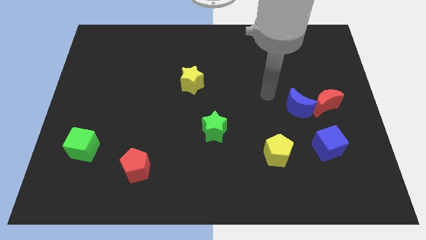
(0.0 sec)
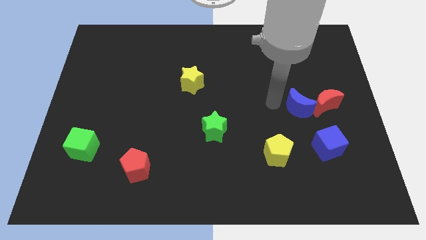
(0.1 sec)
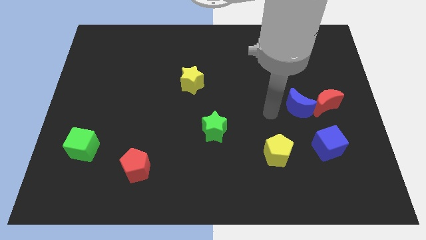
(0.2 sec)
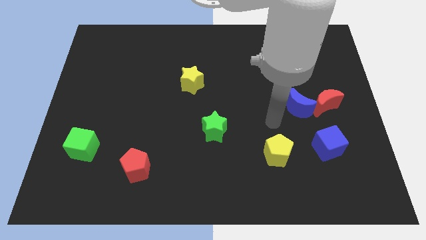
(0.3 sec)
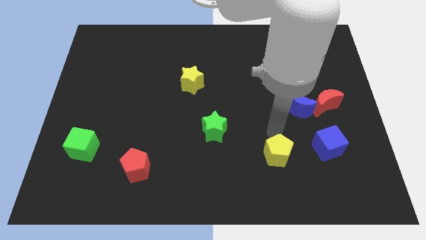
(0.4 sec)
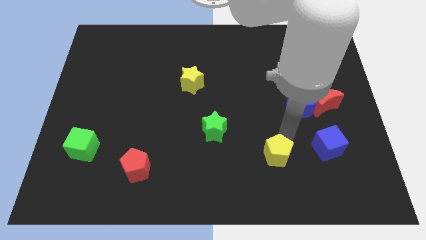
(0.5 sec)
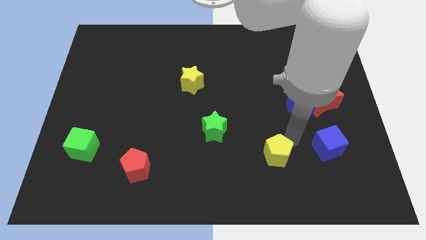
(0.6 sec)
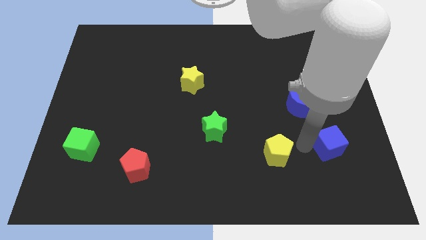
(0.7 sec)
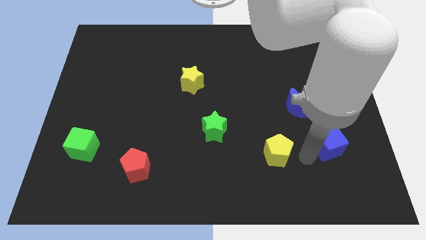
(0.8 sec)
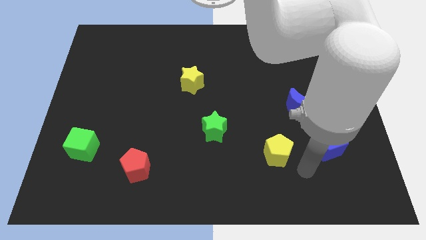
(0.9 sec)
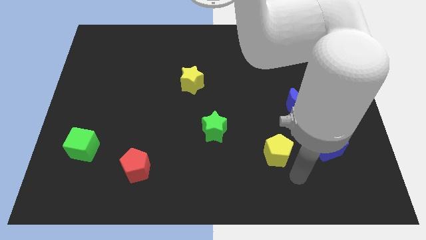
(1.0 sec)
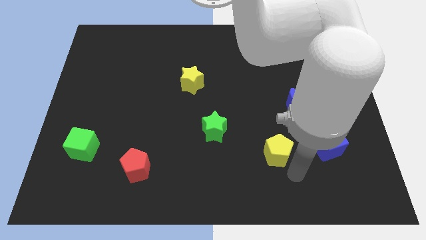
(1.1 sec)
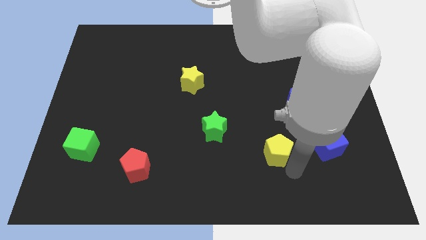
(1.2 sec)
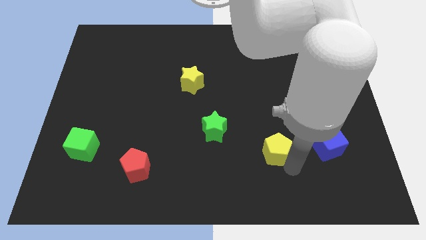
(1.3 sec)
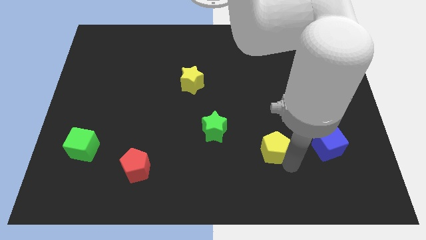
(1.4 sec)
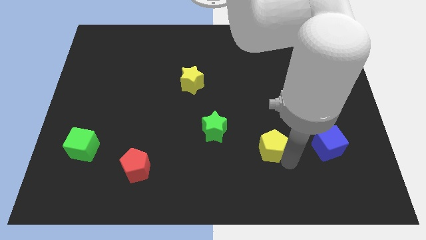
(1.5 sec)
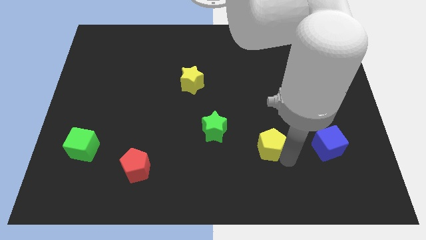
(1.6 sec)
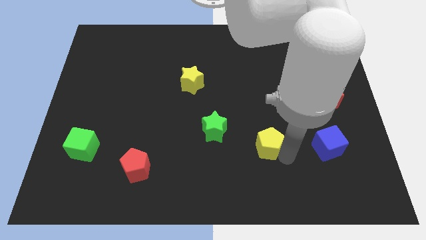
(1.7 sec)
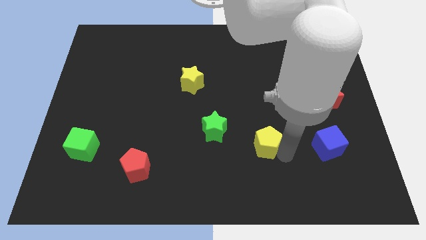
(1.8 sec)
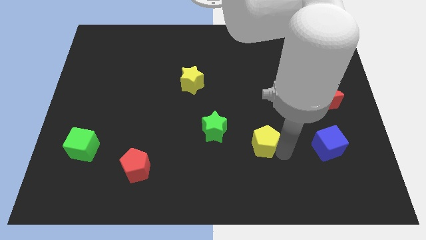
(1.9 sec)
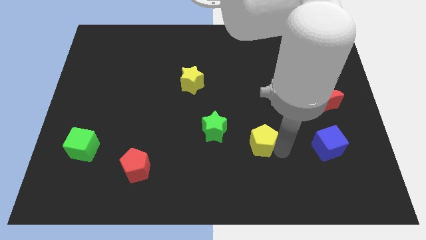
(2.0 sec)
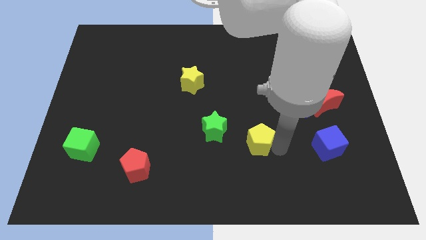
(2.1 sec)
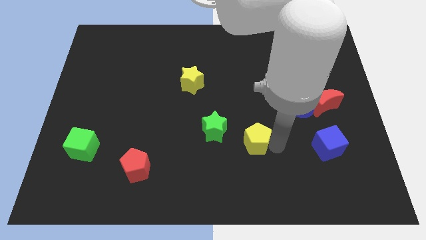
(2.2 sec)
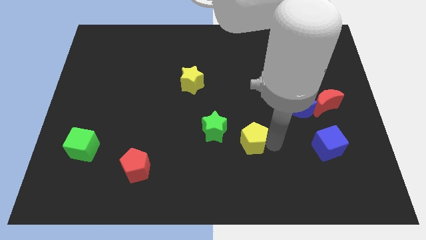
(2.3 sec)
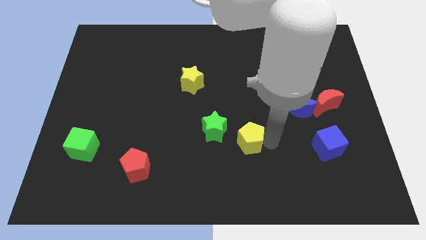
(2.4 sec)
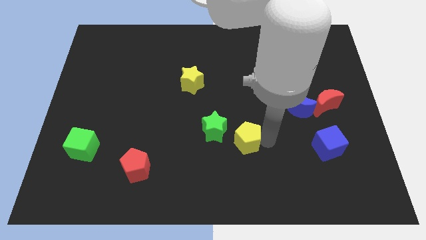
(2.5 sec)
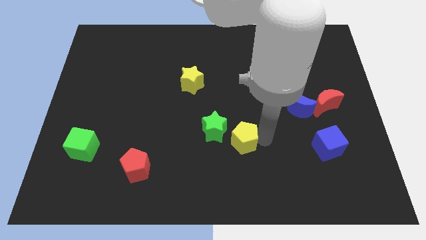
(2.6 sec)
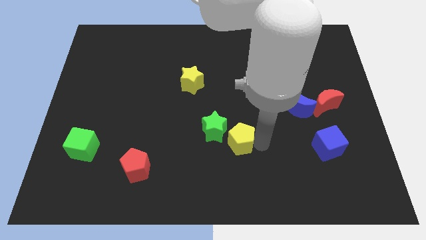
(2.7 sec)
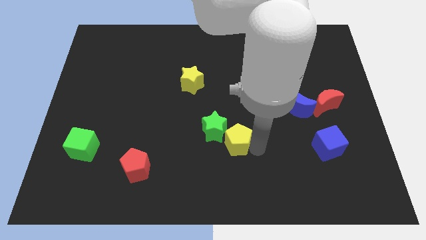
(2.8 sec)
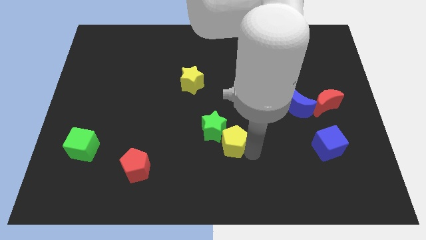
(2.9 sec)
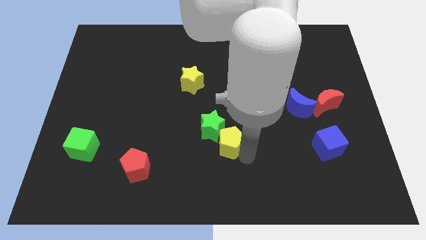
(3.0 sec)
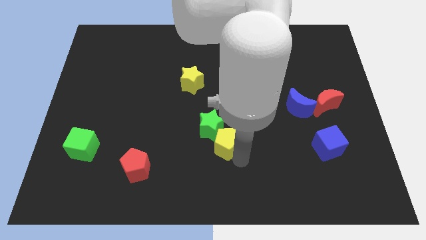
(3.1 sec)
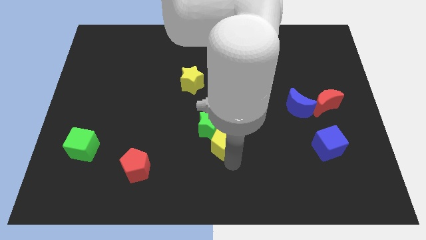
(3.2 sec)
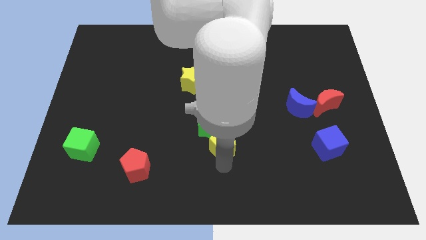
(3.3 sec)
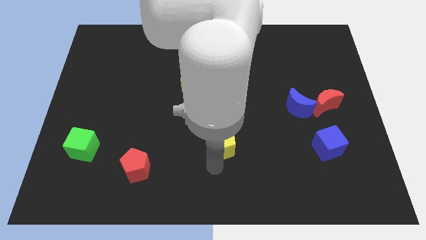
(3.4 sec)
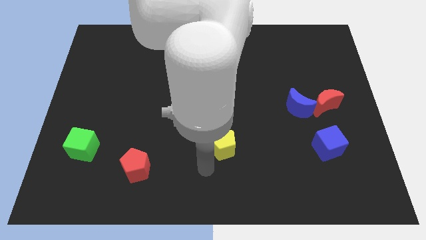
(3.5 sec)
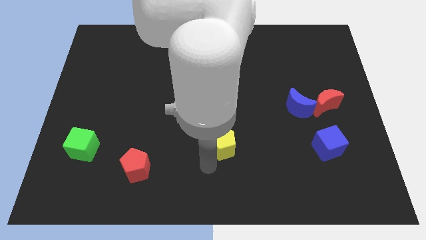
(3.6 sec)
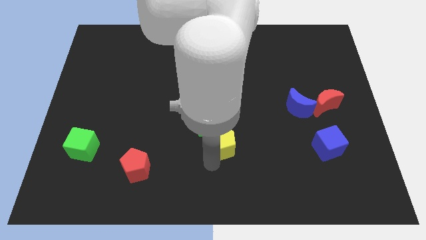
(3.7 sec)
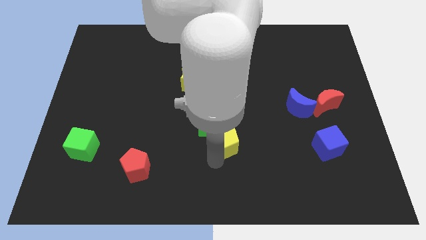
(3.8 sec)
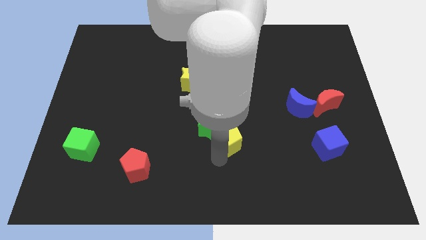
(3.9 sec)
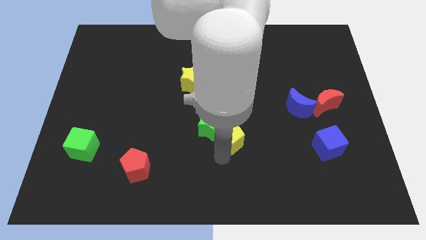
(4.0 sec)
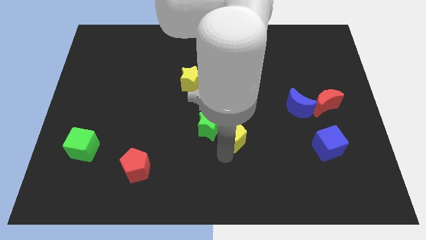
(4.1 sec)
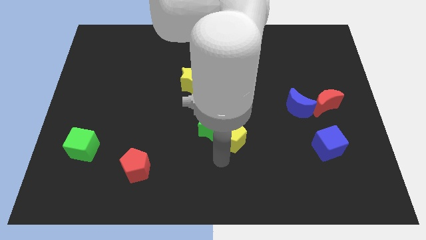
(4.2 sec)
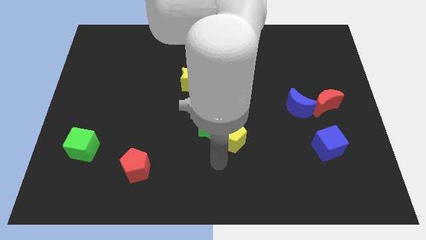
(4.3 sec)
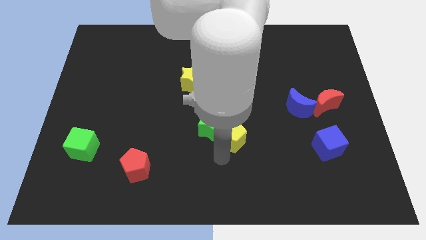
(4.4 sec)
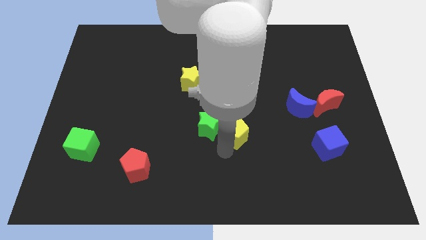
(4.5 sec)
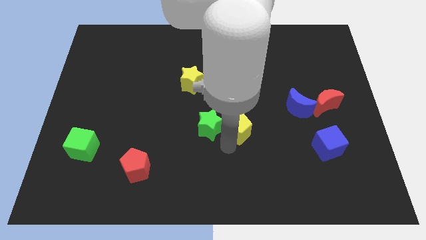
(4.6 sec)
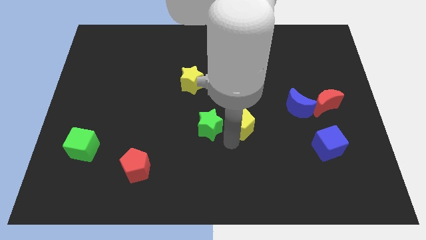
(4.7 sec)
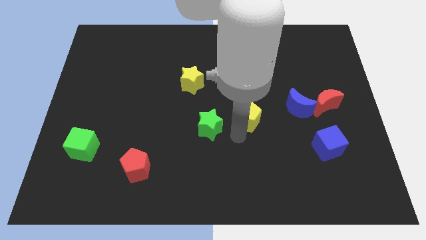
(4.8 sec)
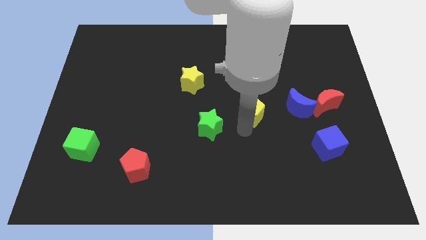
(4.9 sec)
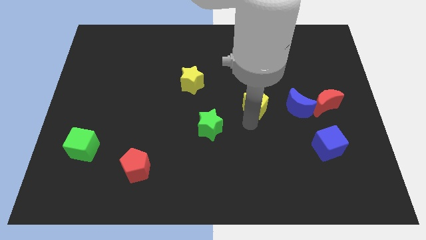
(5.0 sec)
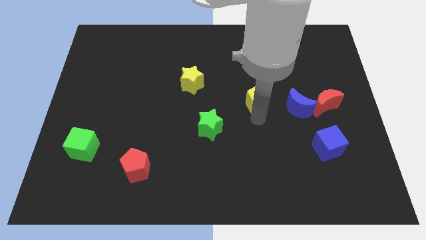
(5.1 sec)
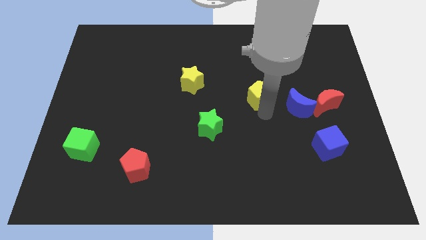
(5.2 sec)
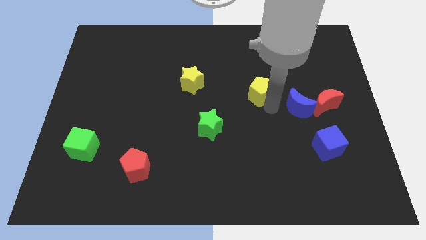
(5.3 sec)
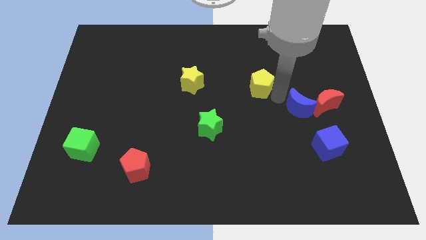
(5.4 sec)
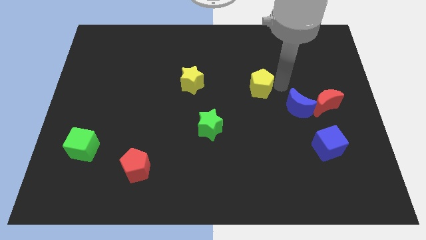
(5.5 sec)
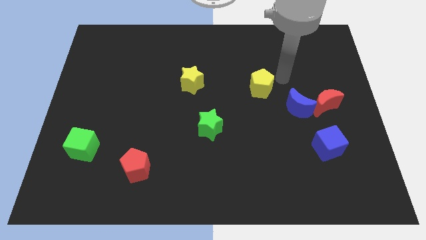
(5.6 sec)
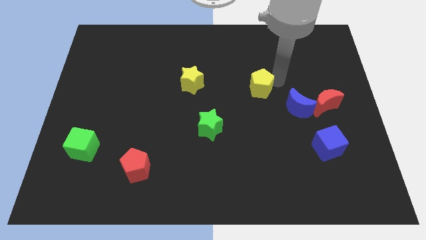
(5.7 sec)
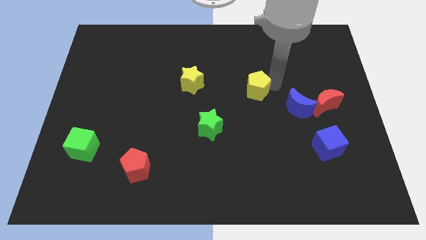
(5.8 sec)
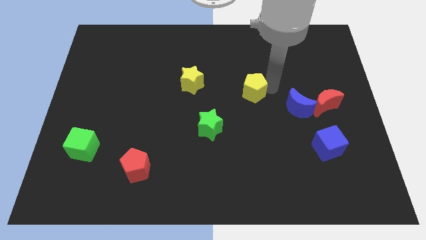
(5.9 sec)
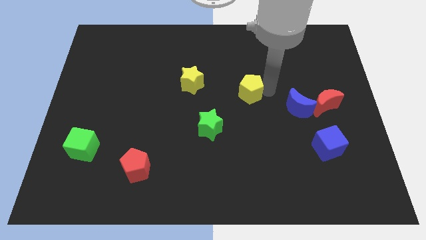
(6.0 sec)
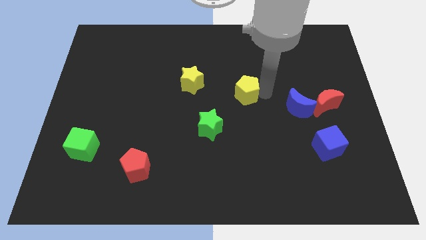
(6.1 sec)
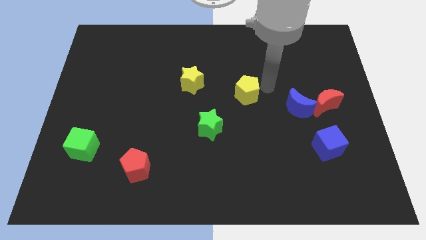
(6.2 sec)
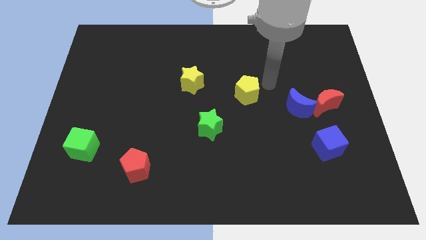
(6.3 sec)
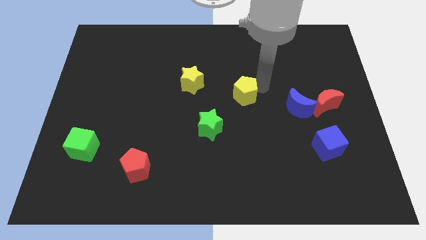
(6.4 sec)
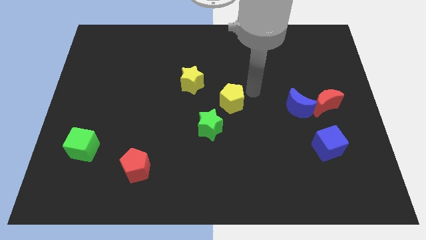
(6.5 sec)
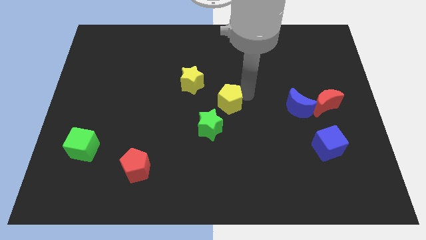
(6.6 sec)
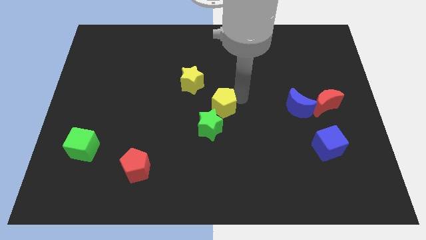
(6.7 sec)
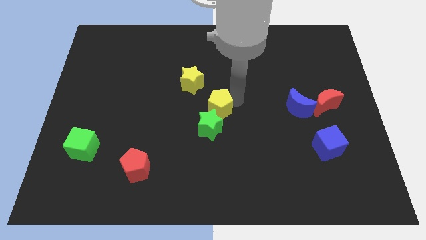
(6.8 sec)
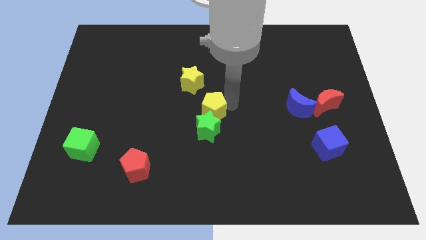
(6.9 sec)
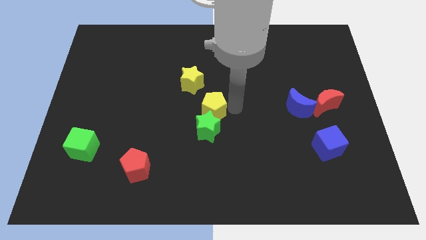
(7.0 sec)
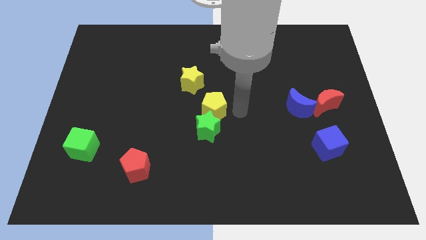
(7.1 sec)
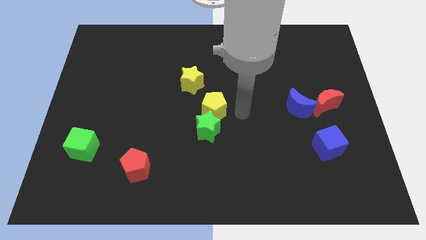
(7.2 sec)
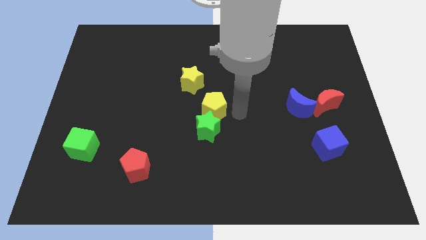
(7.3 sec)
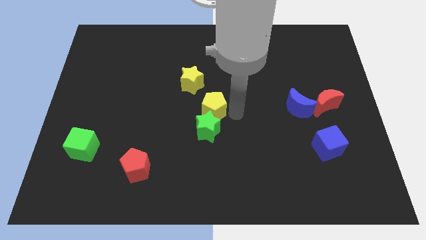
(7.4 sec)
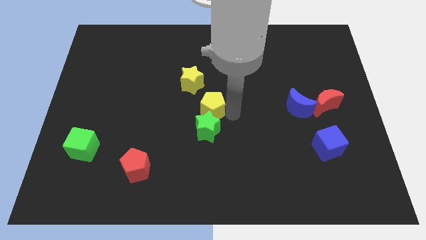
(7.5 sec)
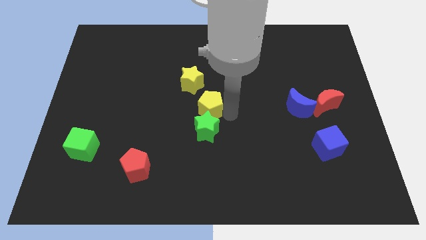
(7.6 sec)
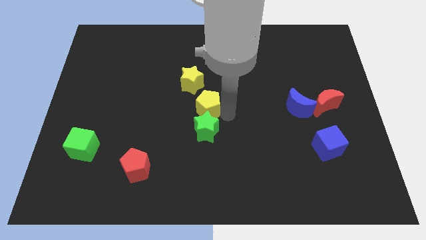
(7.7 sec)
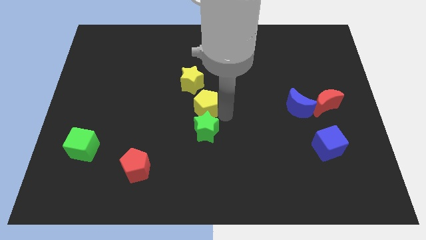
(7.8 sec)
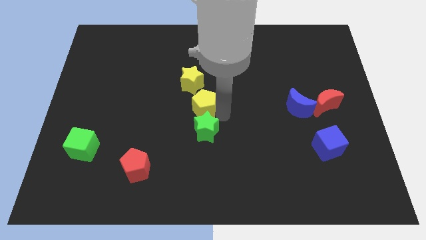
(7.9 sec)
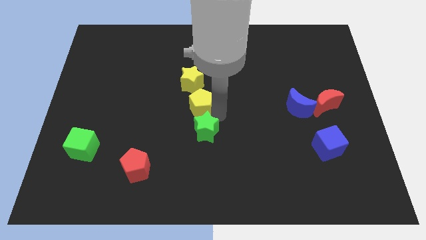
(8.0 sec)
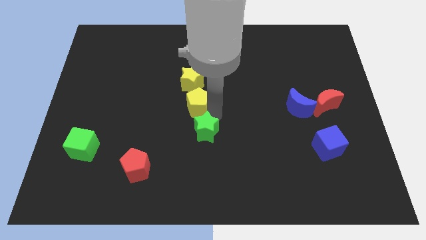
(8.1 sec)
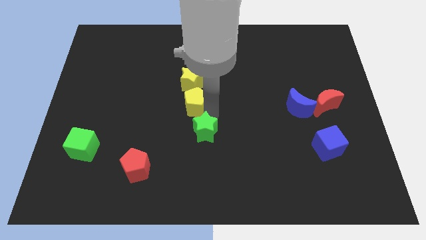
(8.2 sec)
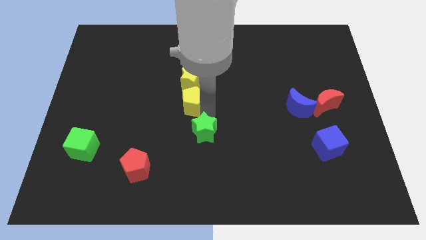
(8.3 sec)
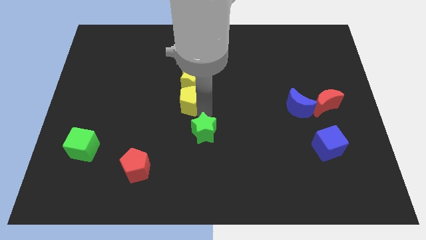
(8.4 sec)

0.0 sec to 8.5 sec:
move the yellow pentagon to the bottom left side of the yellow star
